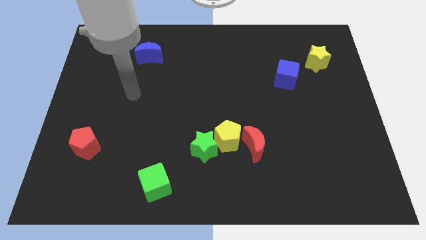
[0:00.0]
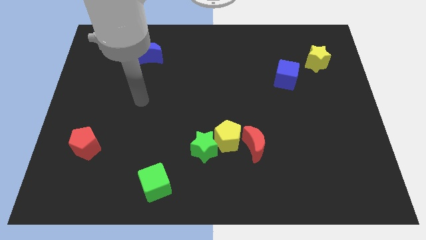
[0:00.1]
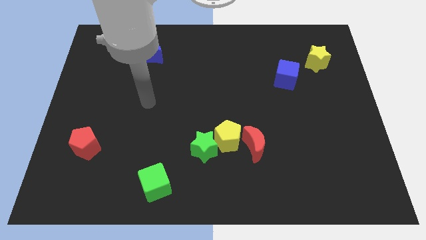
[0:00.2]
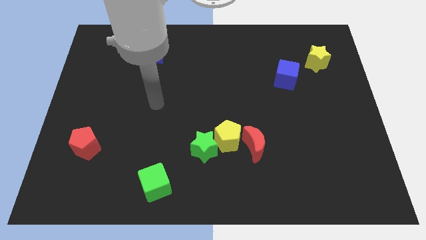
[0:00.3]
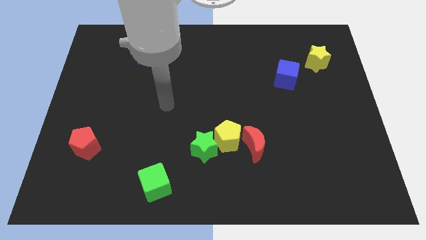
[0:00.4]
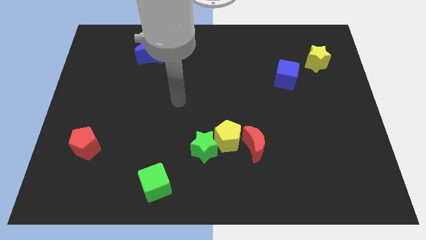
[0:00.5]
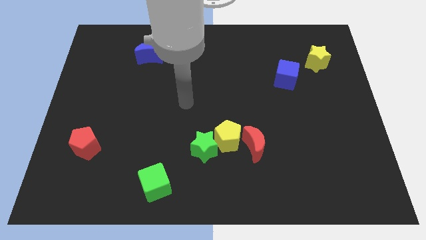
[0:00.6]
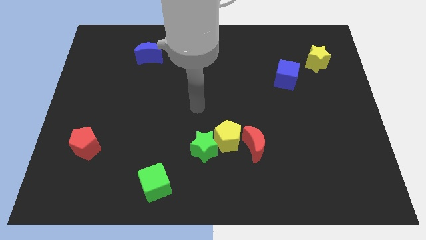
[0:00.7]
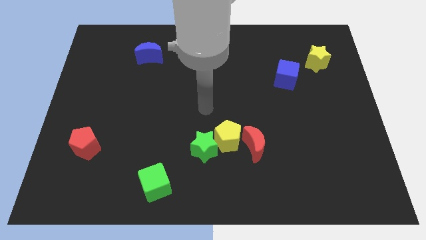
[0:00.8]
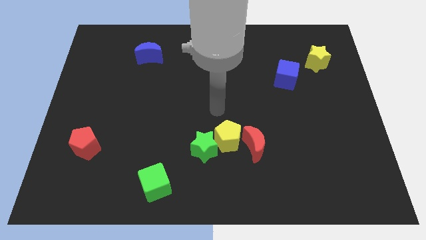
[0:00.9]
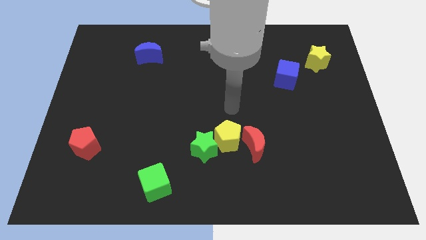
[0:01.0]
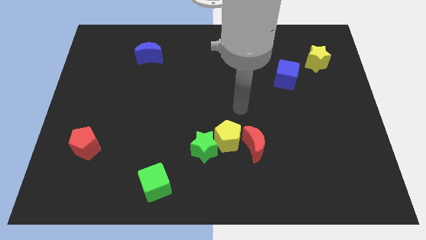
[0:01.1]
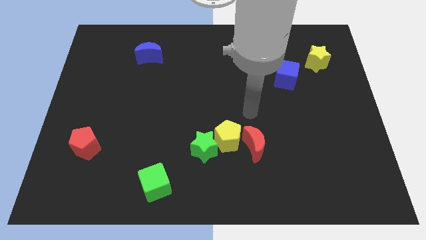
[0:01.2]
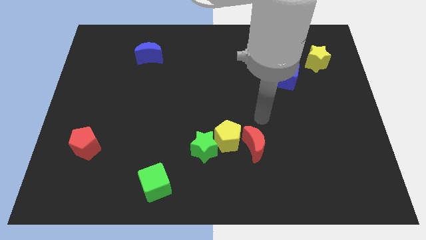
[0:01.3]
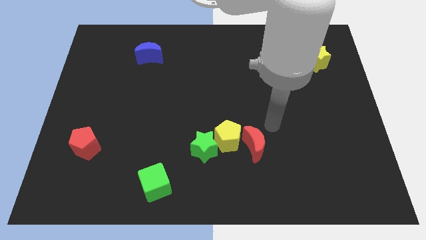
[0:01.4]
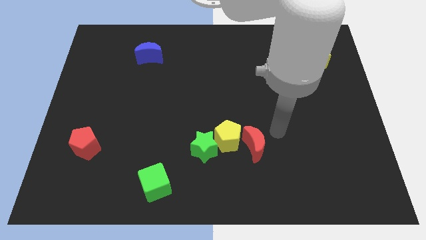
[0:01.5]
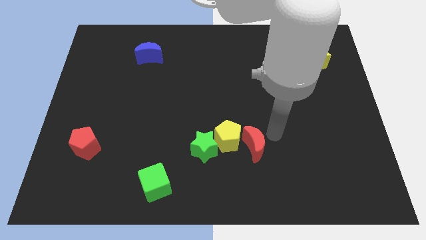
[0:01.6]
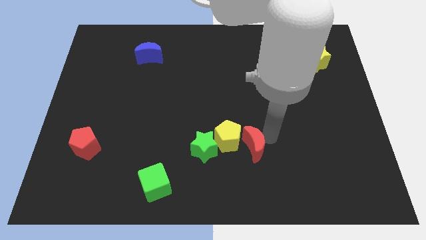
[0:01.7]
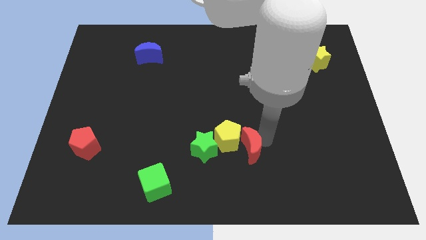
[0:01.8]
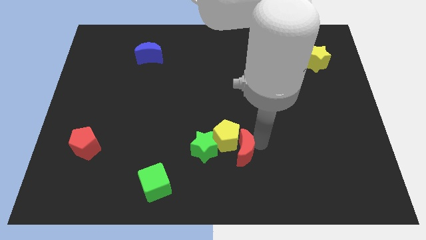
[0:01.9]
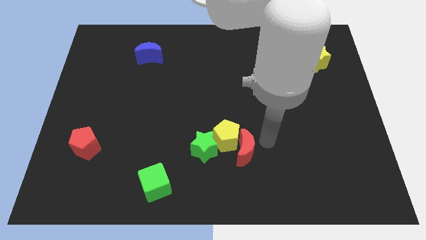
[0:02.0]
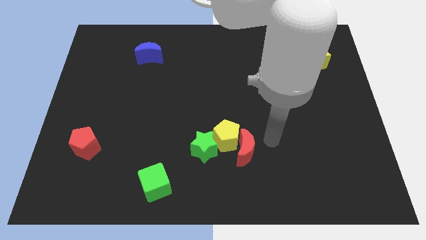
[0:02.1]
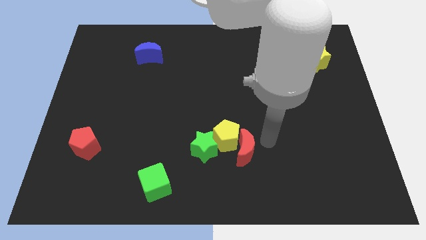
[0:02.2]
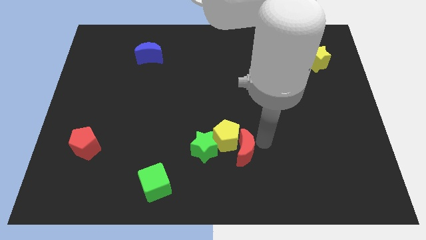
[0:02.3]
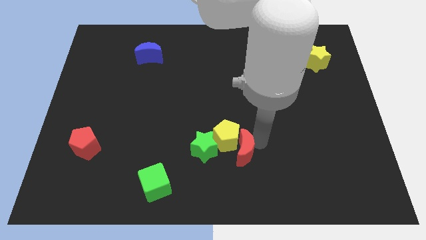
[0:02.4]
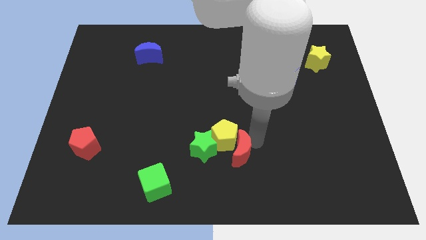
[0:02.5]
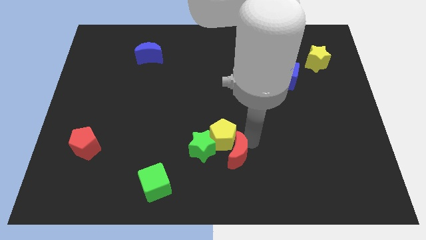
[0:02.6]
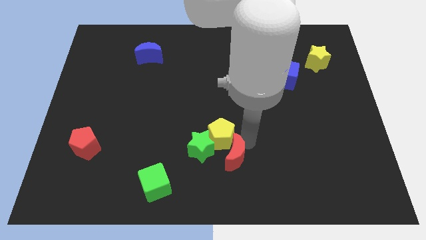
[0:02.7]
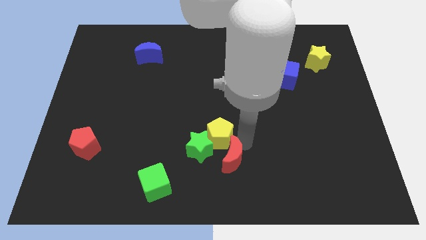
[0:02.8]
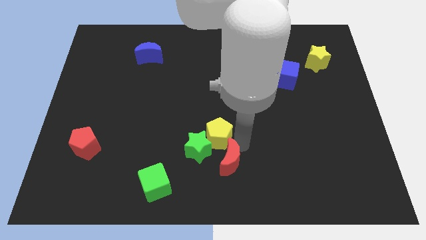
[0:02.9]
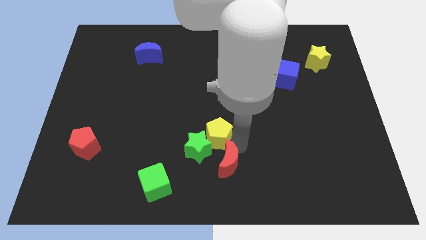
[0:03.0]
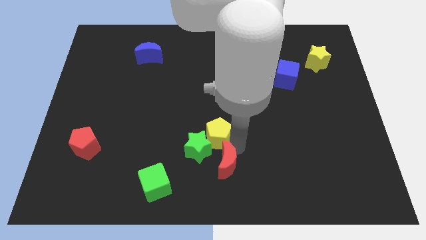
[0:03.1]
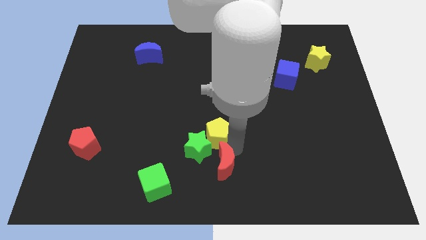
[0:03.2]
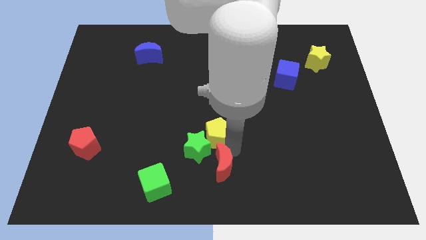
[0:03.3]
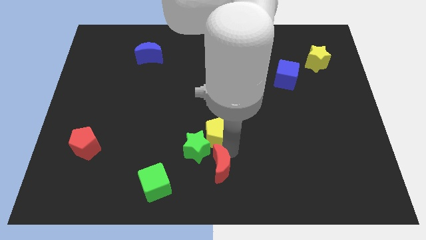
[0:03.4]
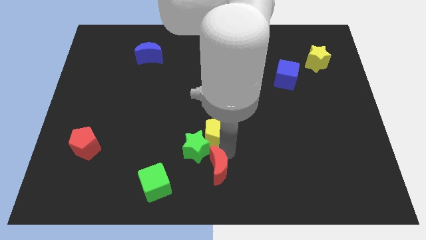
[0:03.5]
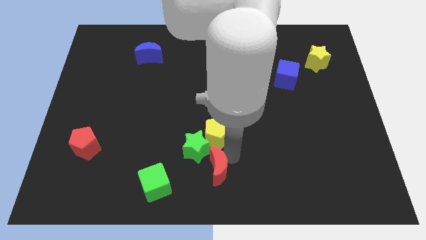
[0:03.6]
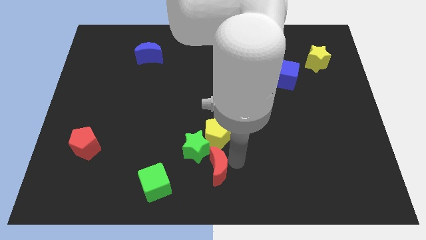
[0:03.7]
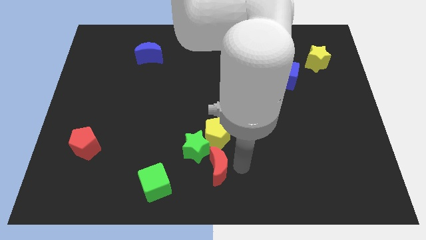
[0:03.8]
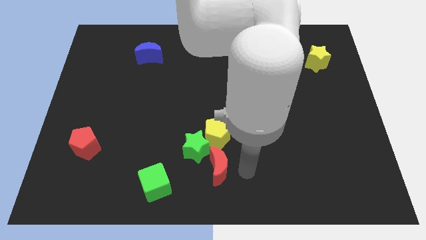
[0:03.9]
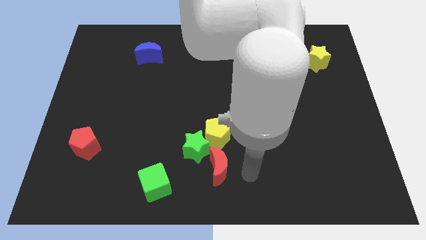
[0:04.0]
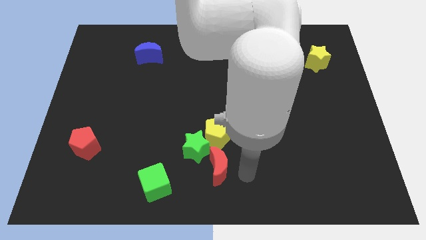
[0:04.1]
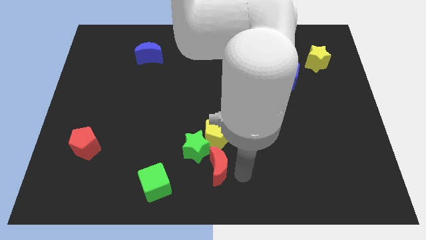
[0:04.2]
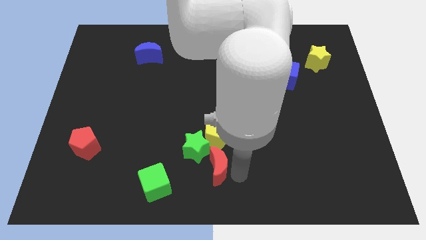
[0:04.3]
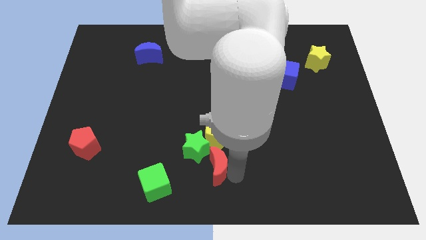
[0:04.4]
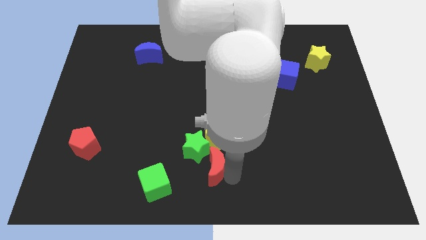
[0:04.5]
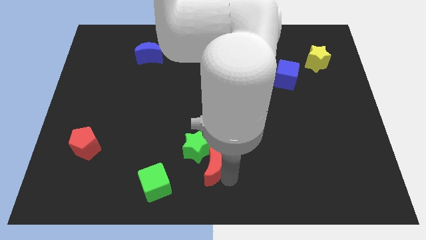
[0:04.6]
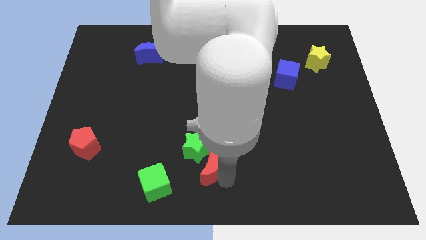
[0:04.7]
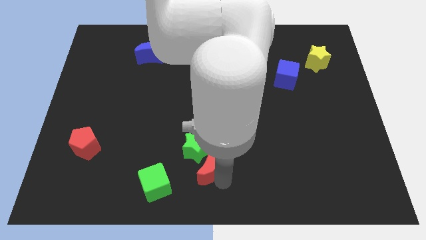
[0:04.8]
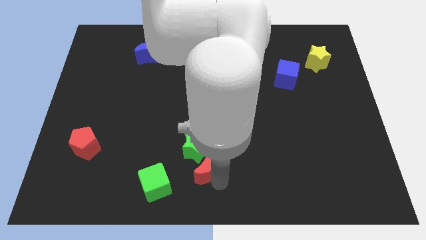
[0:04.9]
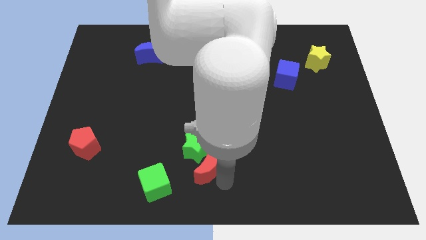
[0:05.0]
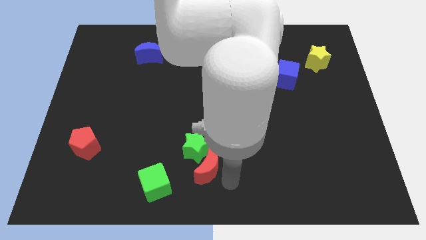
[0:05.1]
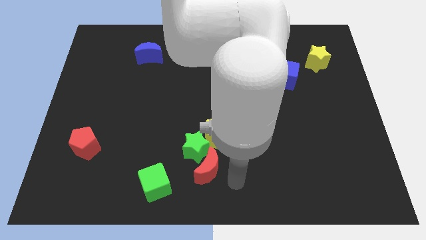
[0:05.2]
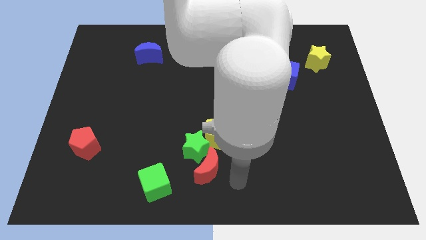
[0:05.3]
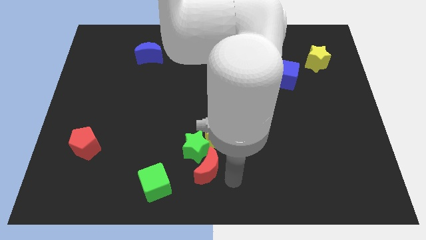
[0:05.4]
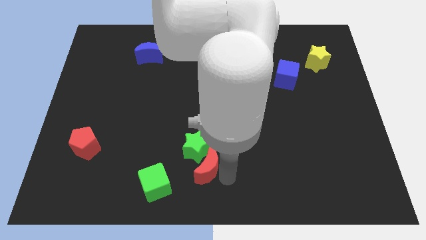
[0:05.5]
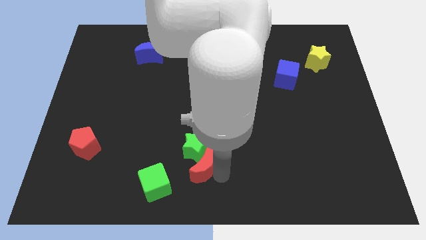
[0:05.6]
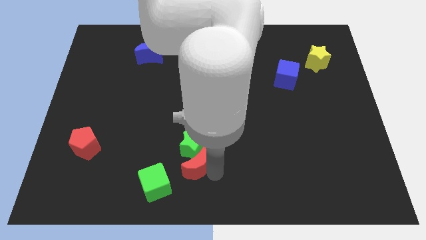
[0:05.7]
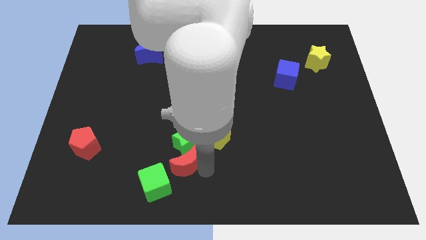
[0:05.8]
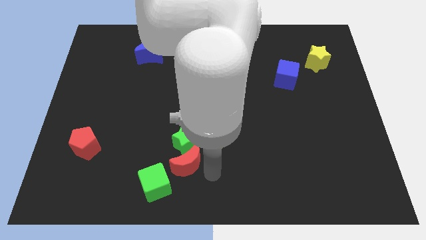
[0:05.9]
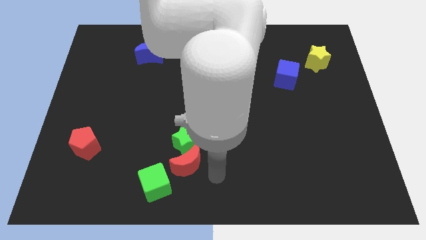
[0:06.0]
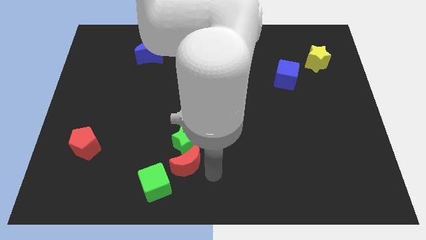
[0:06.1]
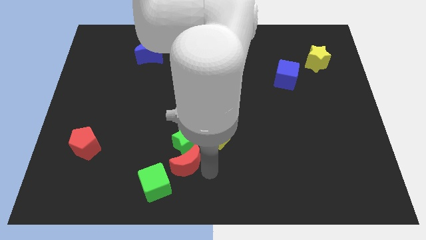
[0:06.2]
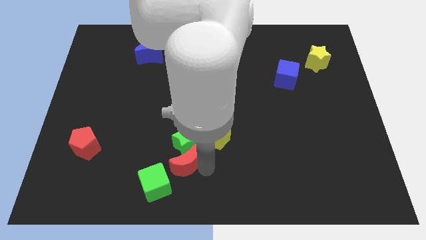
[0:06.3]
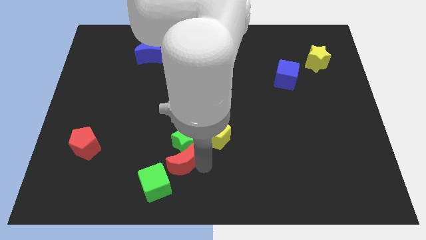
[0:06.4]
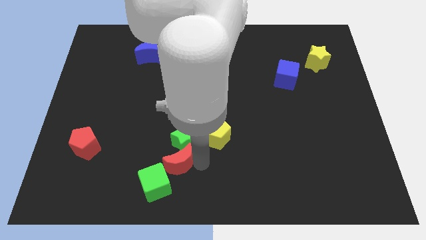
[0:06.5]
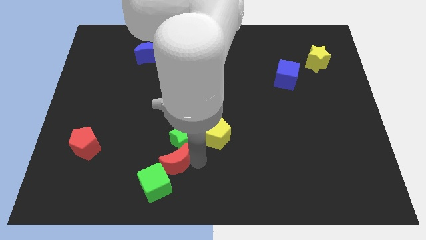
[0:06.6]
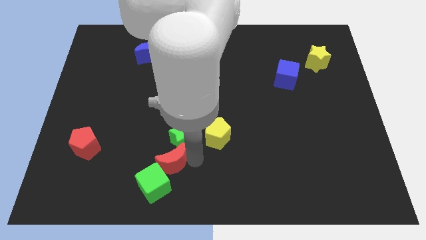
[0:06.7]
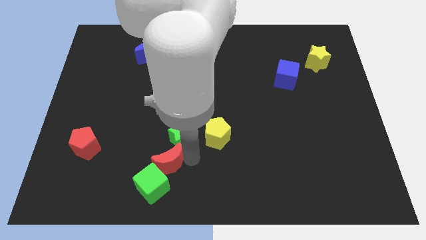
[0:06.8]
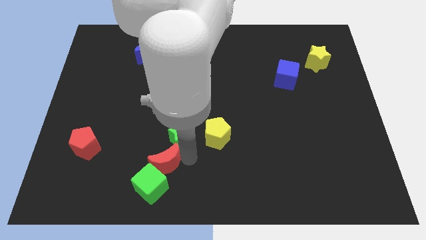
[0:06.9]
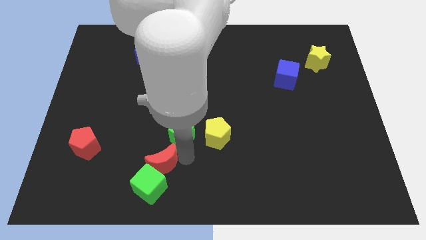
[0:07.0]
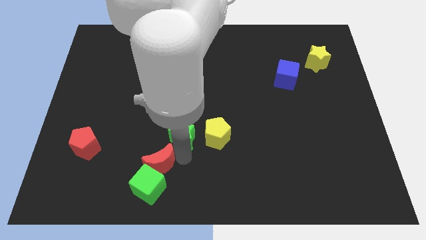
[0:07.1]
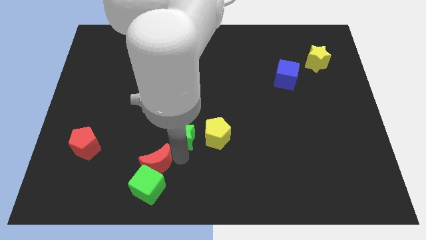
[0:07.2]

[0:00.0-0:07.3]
move the red moon left

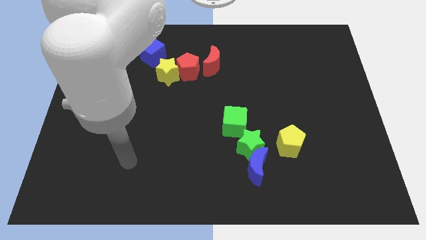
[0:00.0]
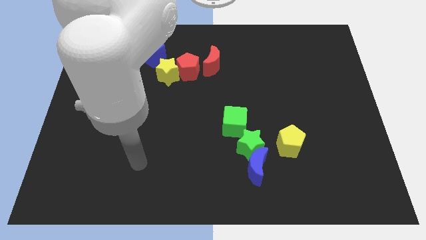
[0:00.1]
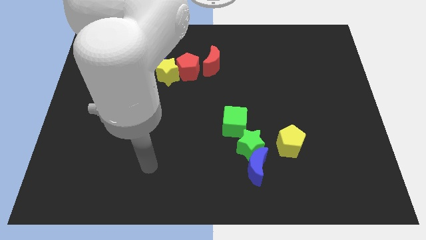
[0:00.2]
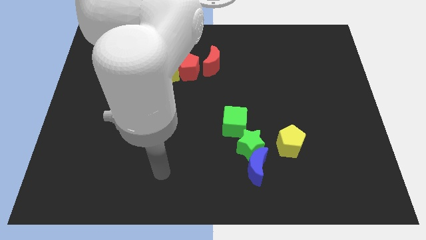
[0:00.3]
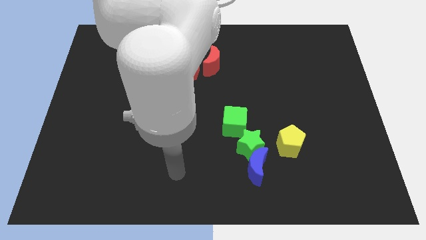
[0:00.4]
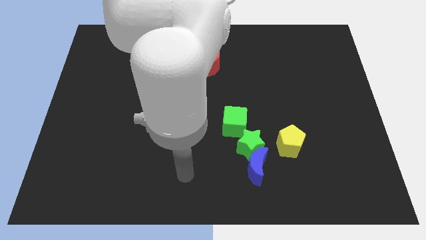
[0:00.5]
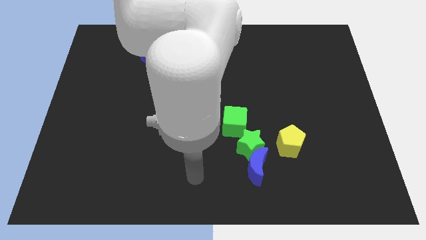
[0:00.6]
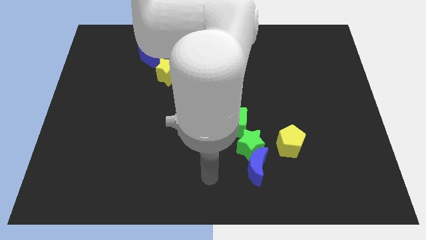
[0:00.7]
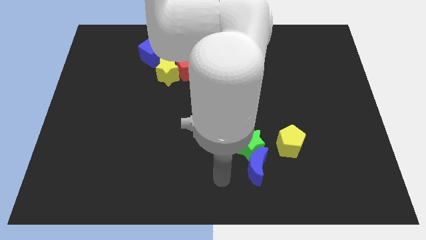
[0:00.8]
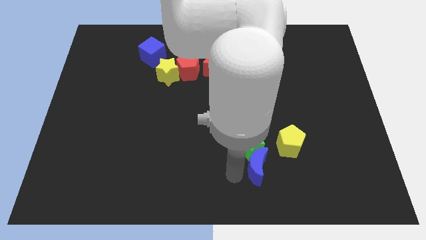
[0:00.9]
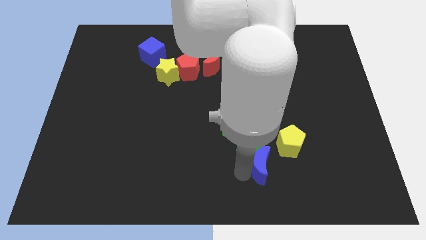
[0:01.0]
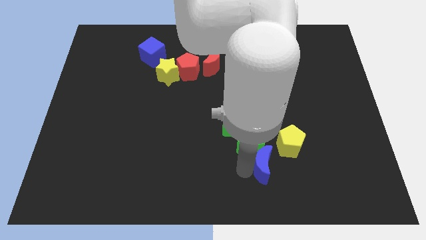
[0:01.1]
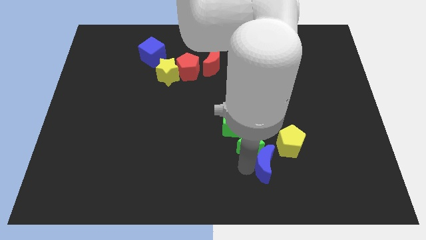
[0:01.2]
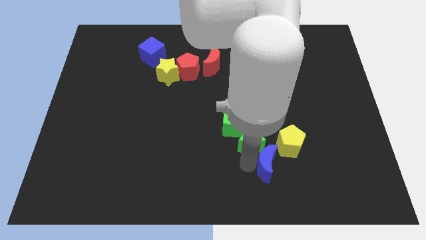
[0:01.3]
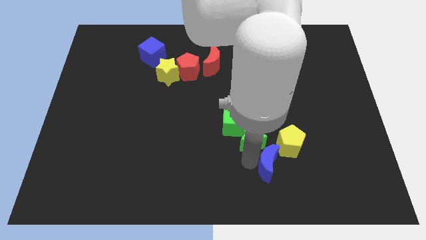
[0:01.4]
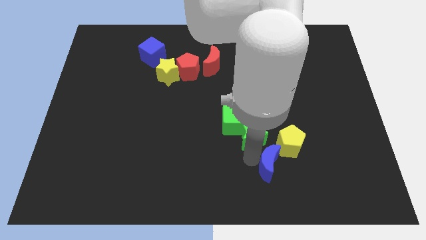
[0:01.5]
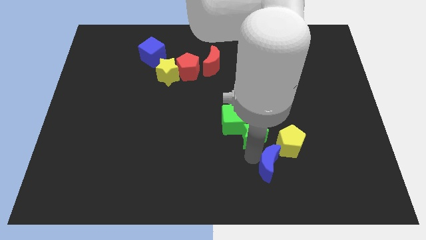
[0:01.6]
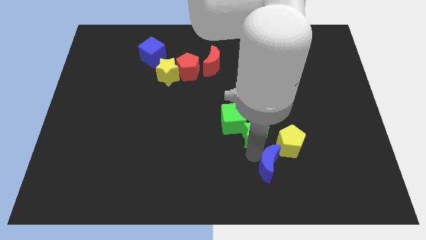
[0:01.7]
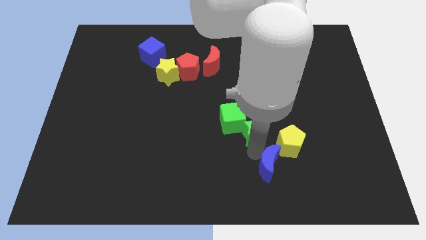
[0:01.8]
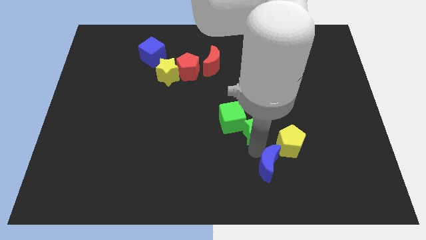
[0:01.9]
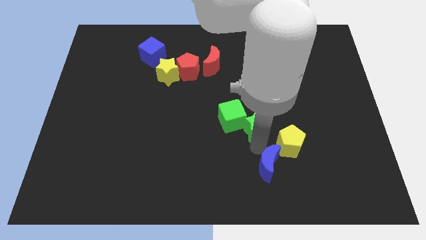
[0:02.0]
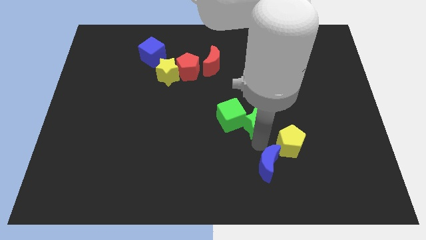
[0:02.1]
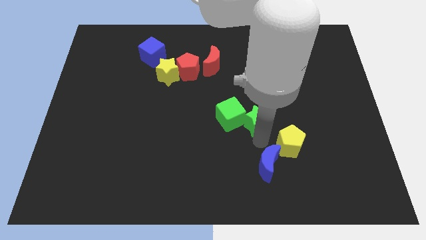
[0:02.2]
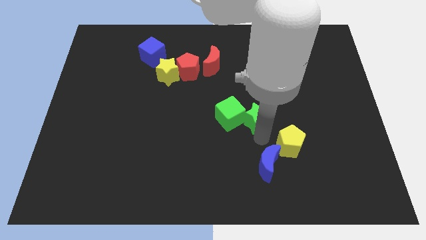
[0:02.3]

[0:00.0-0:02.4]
slightly move the green star upwards
